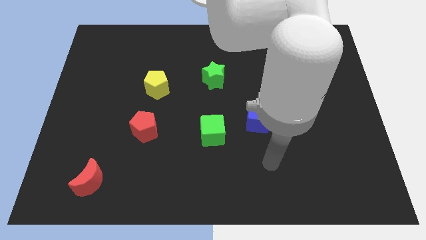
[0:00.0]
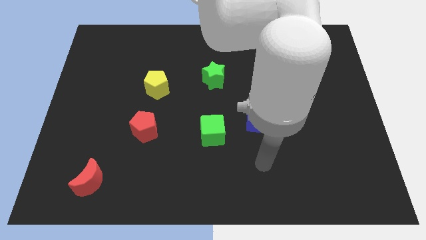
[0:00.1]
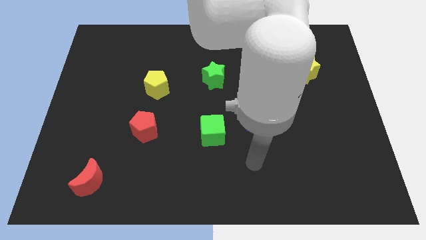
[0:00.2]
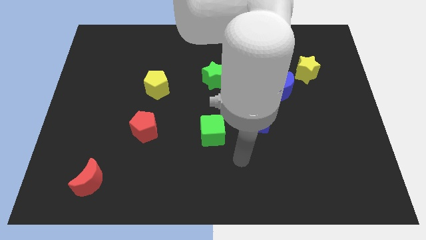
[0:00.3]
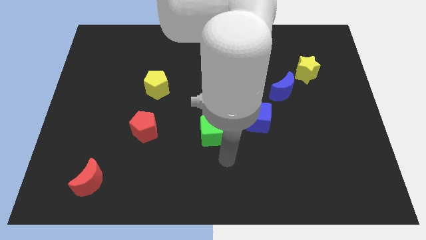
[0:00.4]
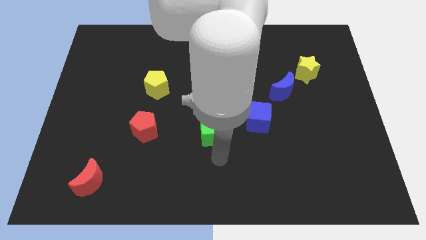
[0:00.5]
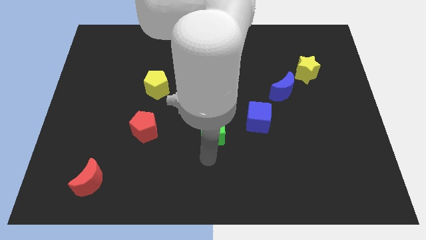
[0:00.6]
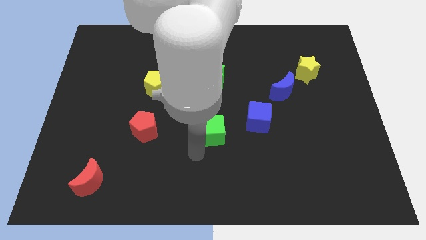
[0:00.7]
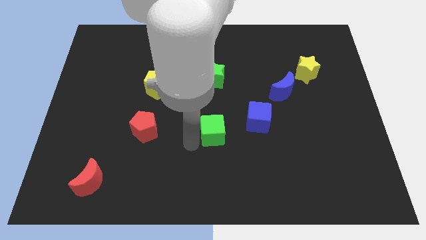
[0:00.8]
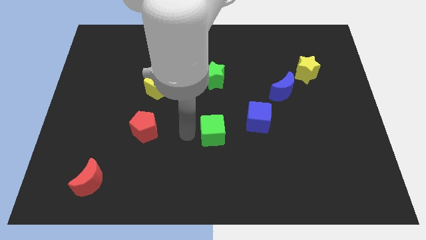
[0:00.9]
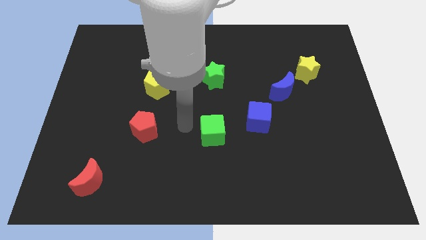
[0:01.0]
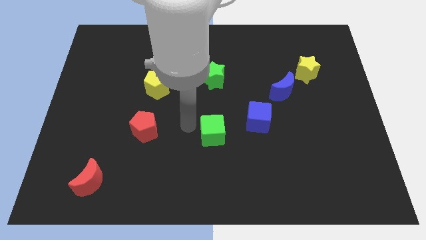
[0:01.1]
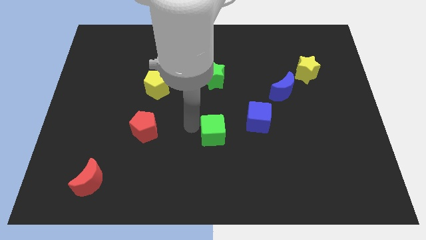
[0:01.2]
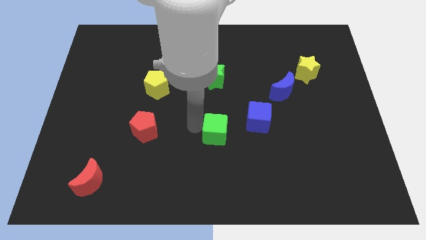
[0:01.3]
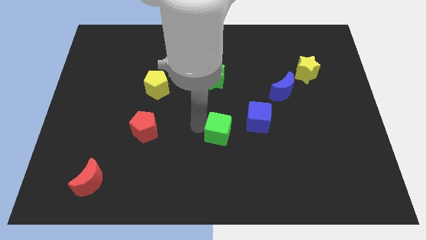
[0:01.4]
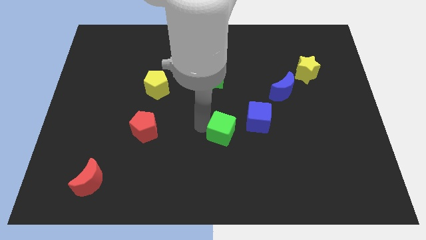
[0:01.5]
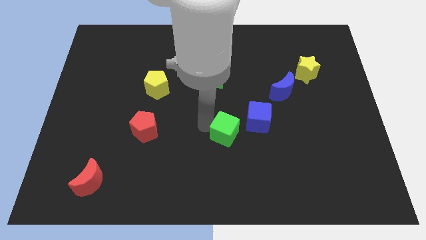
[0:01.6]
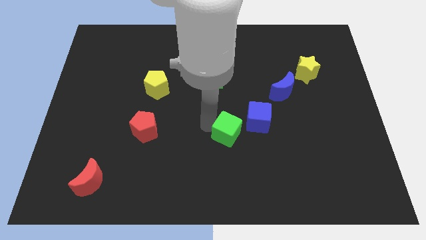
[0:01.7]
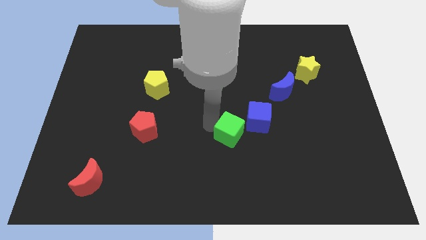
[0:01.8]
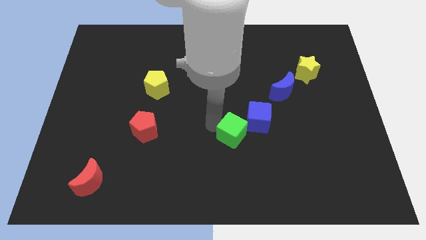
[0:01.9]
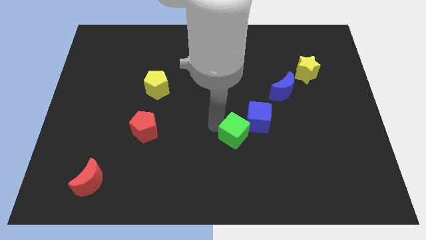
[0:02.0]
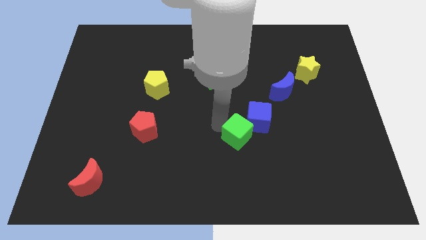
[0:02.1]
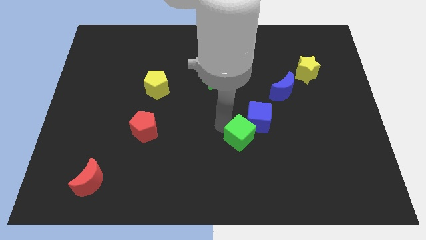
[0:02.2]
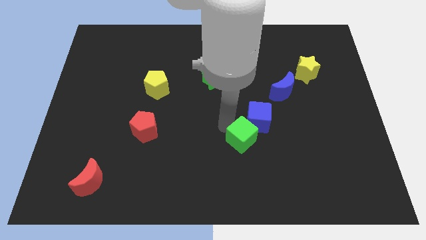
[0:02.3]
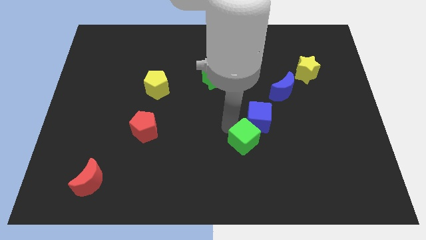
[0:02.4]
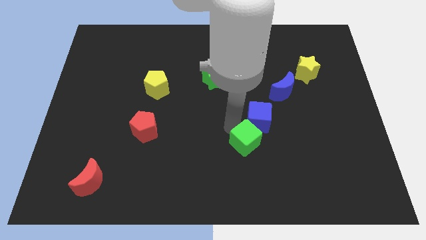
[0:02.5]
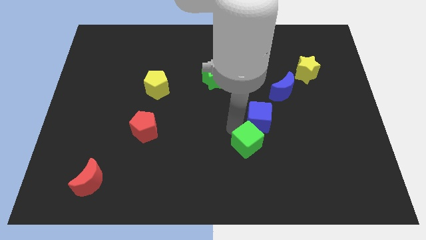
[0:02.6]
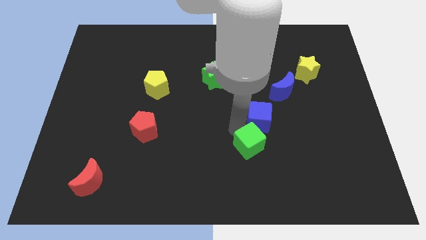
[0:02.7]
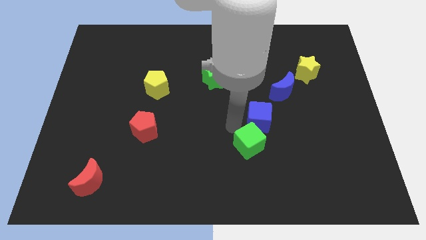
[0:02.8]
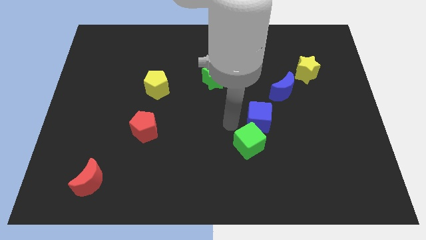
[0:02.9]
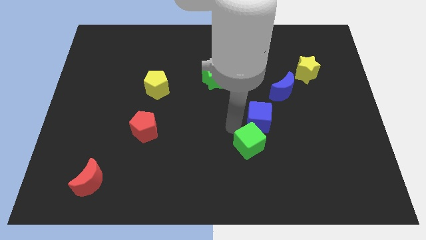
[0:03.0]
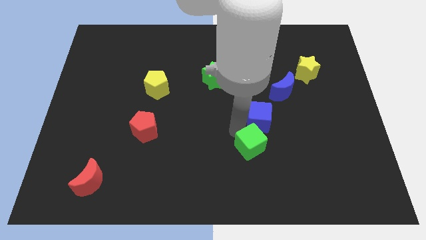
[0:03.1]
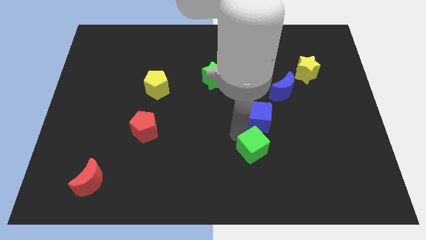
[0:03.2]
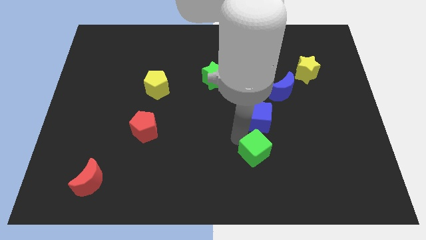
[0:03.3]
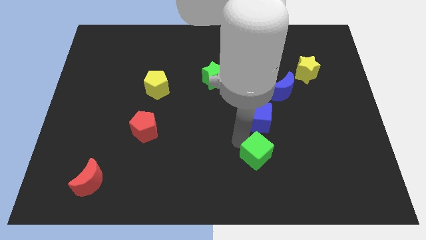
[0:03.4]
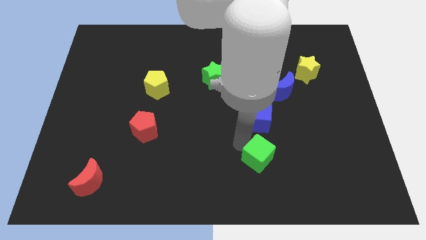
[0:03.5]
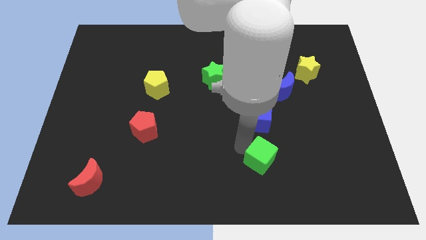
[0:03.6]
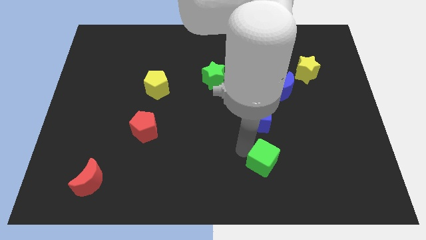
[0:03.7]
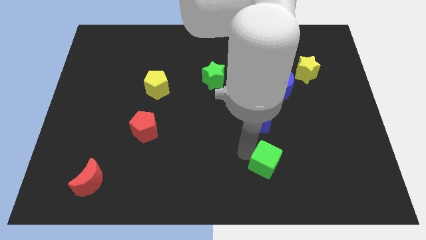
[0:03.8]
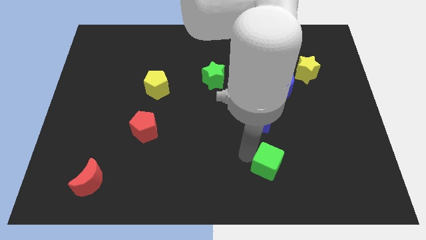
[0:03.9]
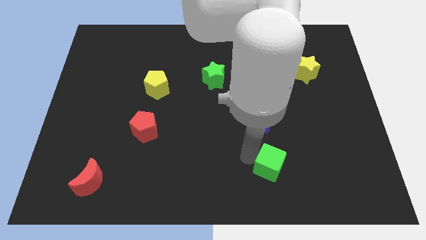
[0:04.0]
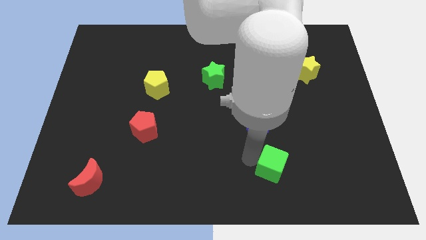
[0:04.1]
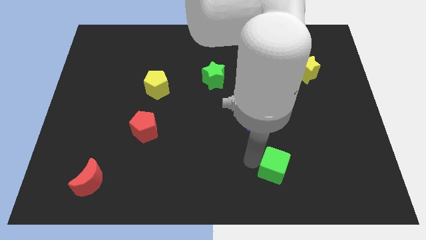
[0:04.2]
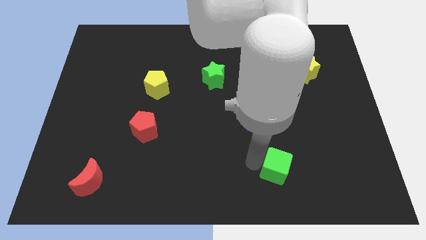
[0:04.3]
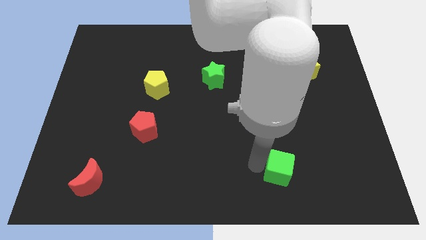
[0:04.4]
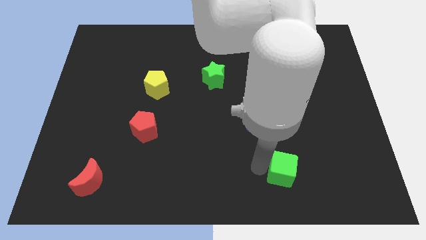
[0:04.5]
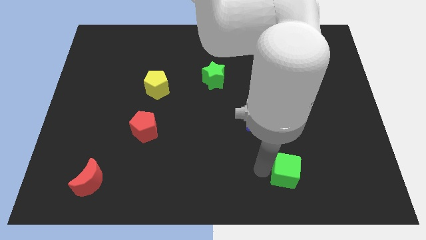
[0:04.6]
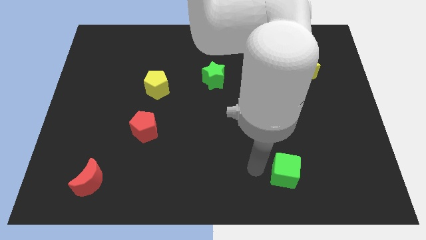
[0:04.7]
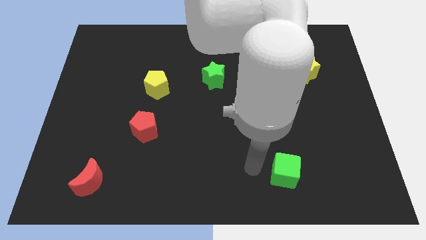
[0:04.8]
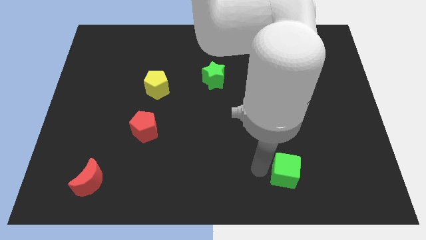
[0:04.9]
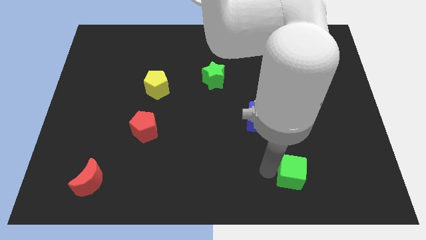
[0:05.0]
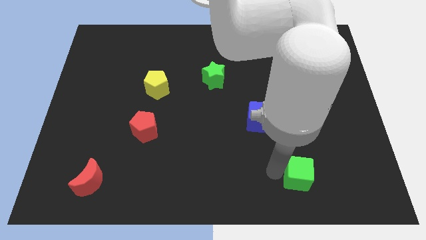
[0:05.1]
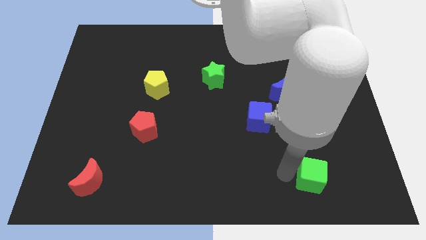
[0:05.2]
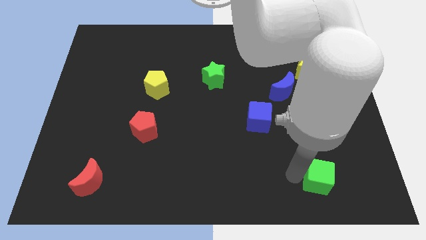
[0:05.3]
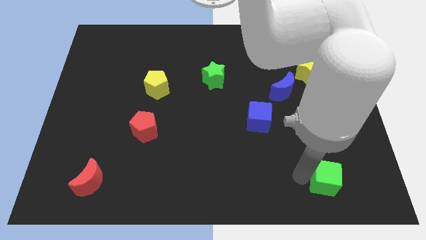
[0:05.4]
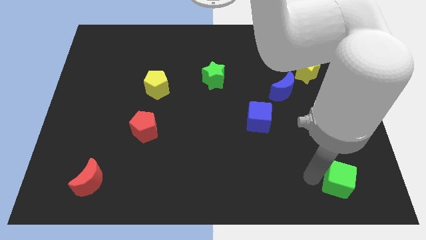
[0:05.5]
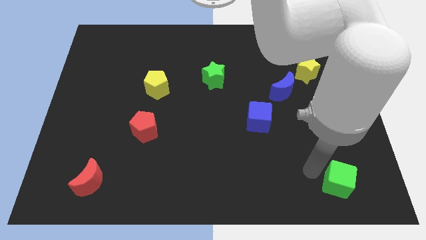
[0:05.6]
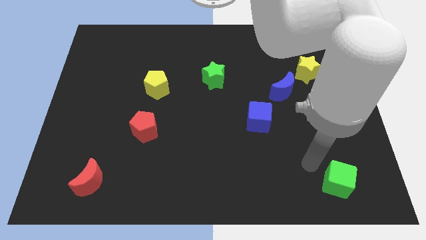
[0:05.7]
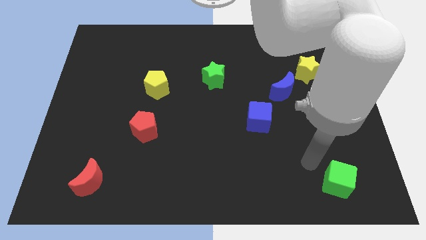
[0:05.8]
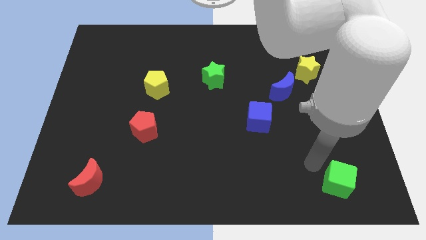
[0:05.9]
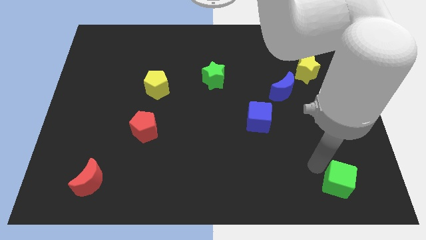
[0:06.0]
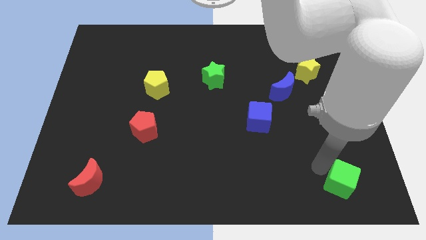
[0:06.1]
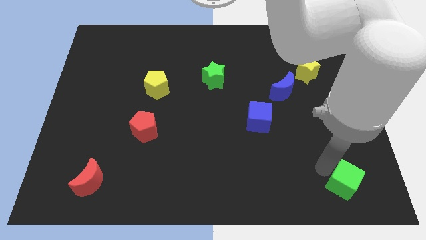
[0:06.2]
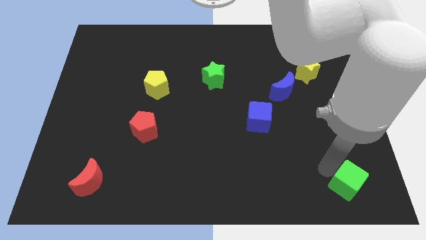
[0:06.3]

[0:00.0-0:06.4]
move the green cube to the bottom right of the board
